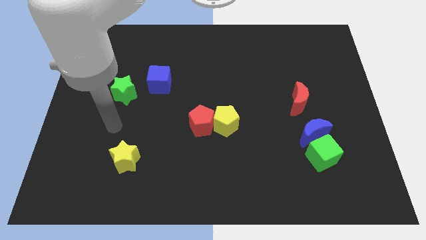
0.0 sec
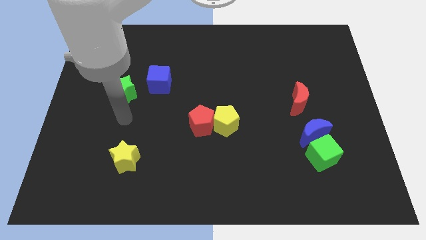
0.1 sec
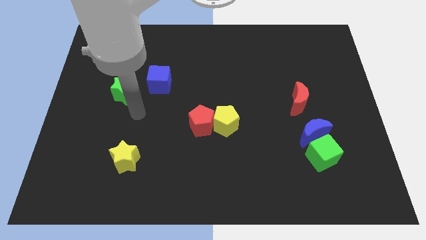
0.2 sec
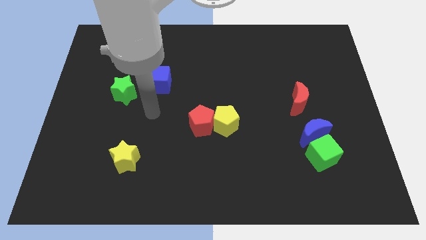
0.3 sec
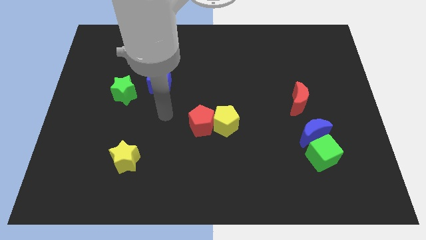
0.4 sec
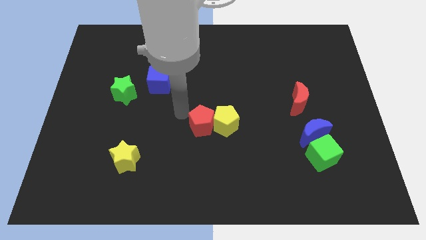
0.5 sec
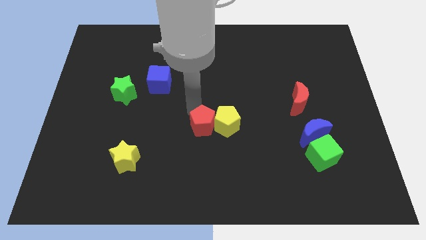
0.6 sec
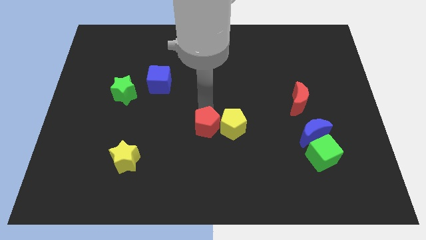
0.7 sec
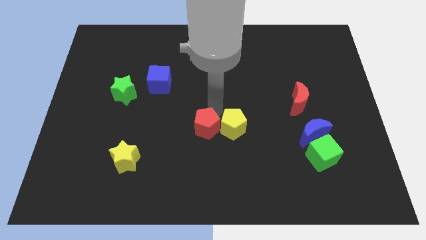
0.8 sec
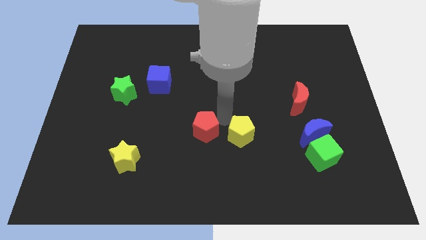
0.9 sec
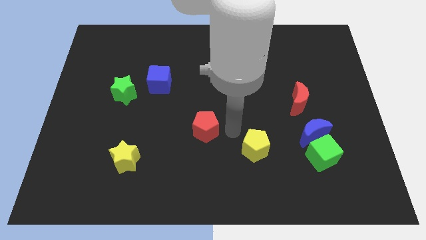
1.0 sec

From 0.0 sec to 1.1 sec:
move the red pentagon away from the yellow pentagon

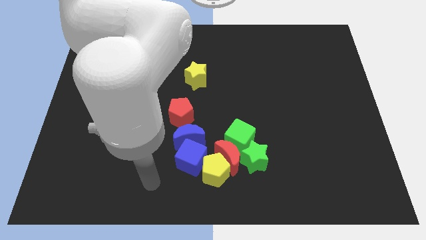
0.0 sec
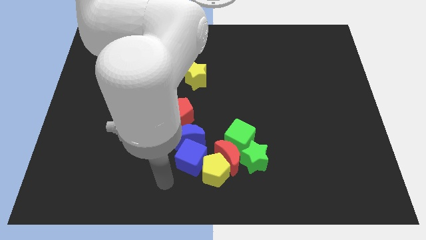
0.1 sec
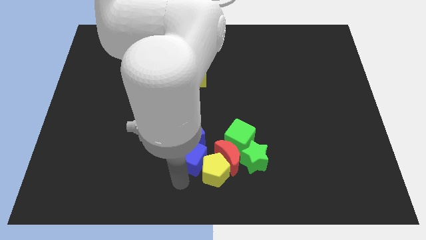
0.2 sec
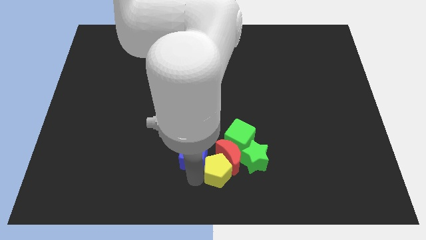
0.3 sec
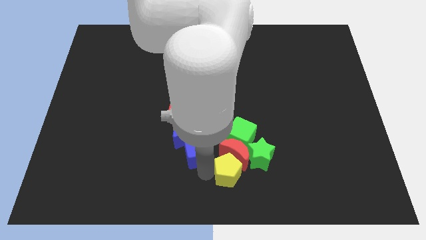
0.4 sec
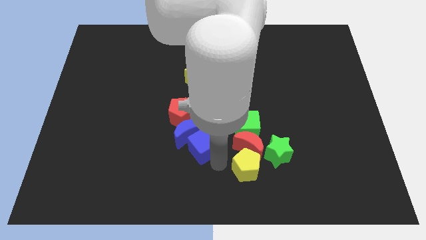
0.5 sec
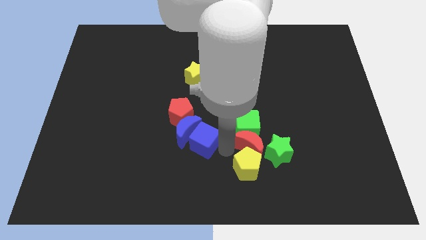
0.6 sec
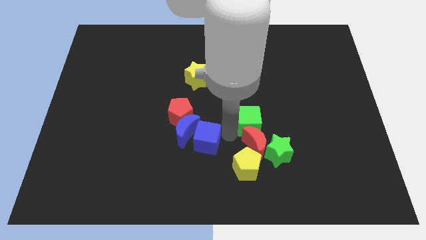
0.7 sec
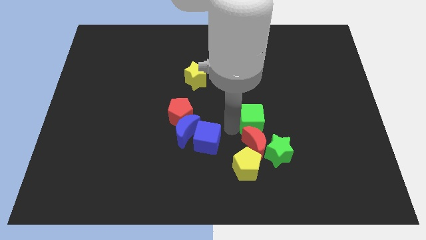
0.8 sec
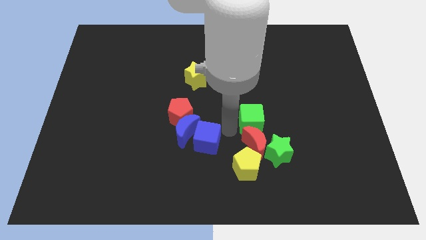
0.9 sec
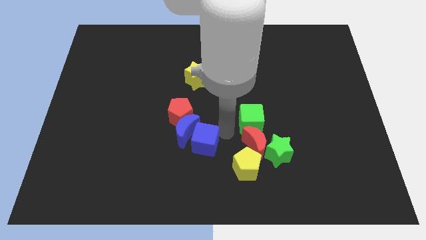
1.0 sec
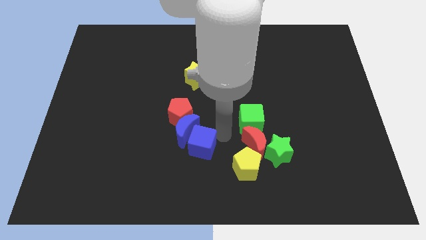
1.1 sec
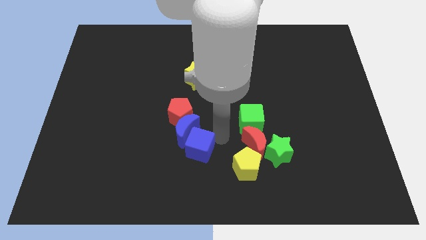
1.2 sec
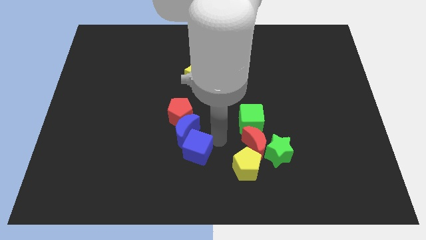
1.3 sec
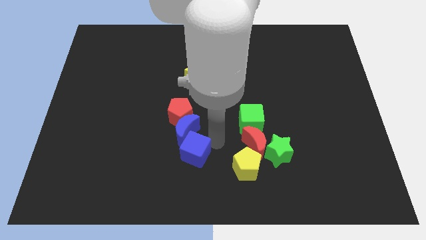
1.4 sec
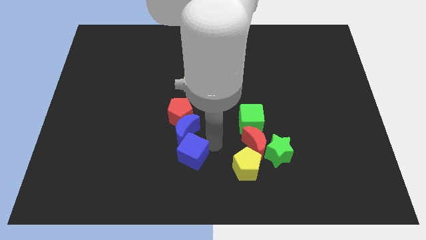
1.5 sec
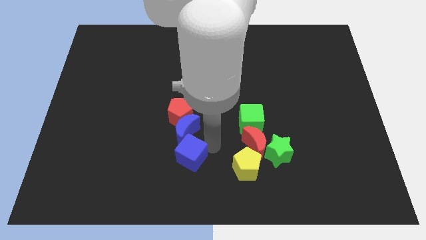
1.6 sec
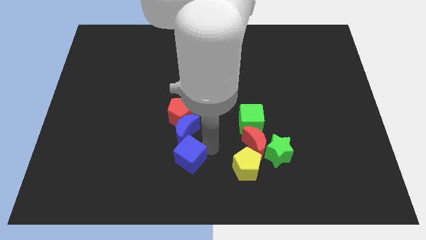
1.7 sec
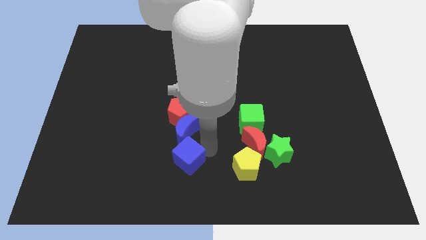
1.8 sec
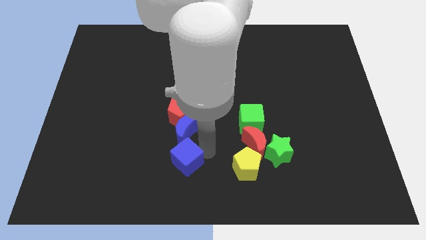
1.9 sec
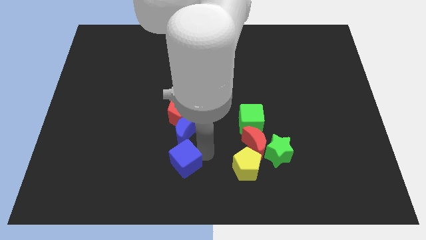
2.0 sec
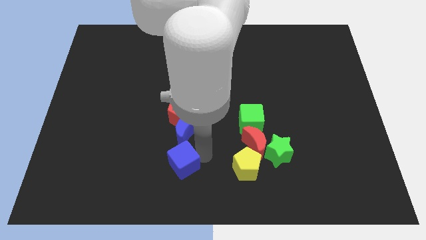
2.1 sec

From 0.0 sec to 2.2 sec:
pull the blue cube apart from the clump

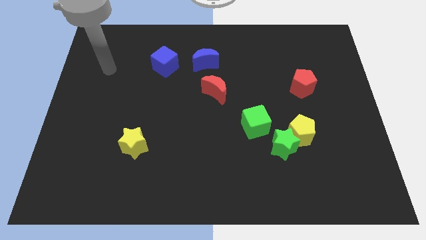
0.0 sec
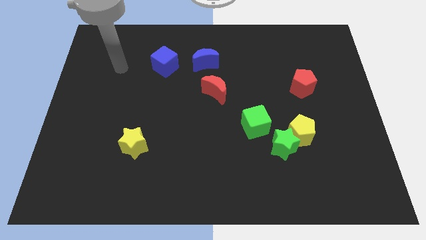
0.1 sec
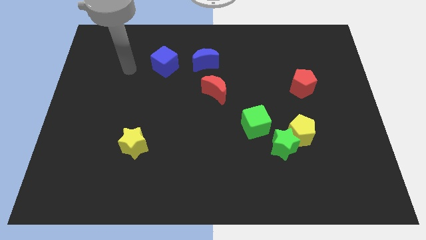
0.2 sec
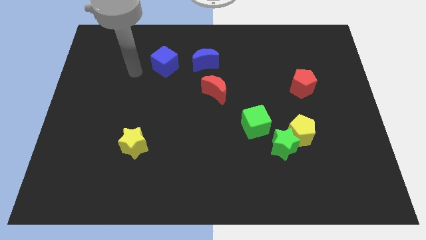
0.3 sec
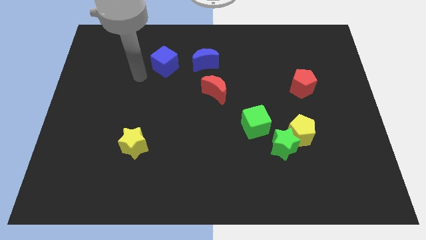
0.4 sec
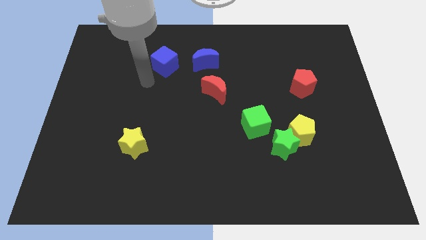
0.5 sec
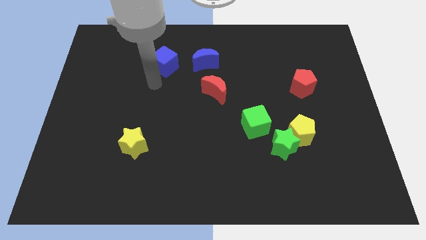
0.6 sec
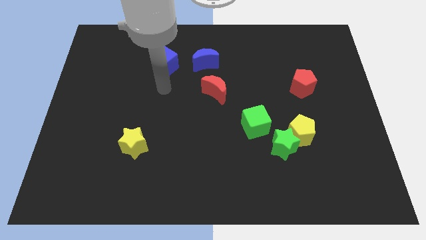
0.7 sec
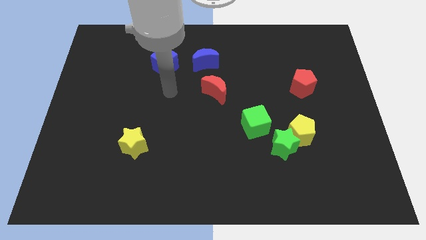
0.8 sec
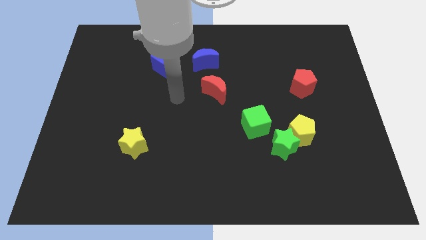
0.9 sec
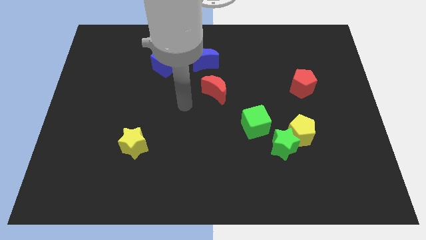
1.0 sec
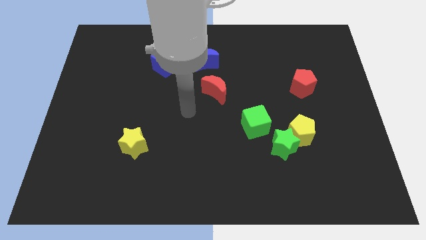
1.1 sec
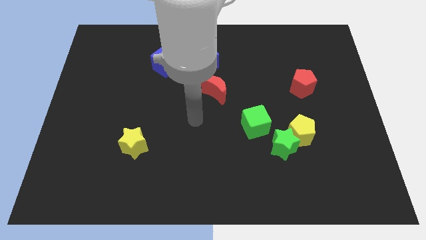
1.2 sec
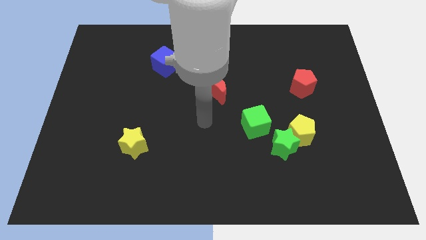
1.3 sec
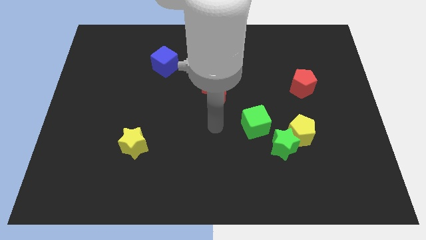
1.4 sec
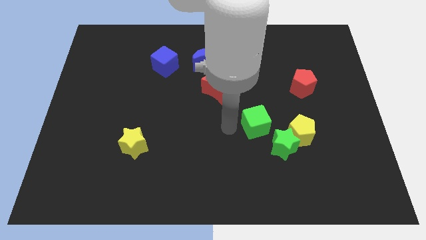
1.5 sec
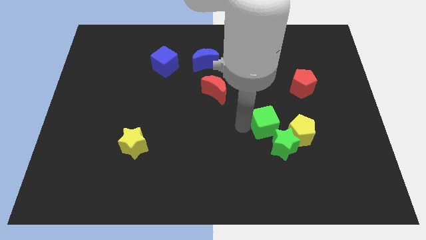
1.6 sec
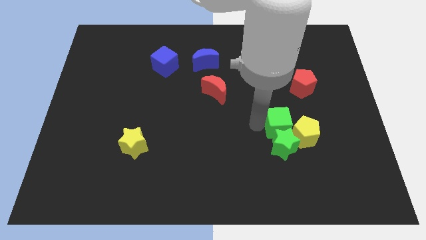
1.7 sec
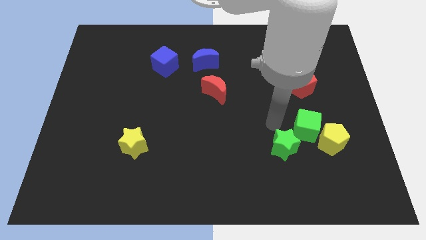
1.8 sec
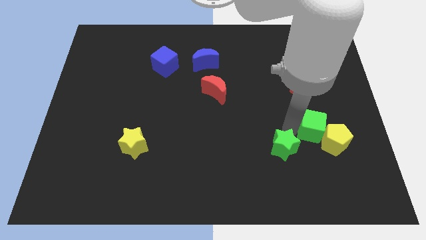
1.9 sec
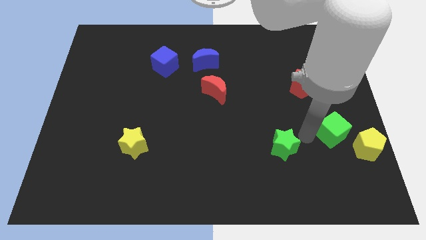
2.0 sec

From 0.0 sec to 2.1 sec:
separate the green star from the yellow pentagon and green cube

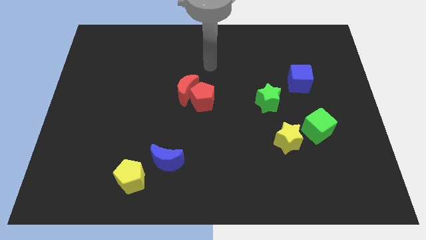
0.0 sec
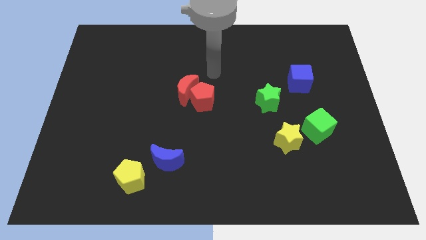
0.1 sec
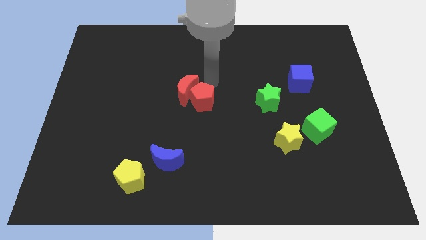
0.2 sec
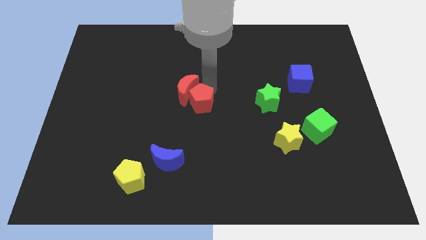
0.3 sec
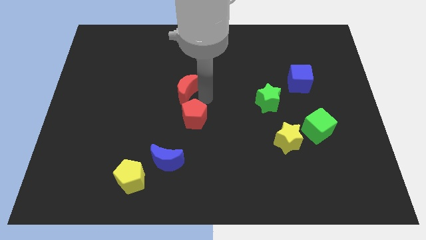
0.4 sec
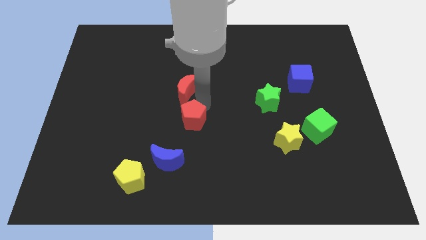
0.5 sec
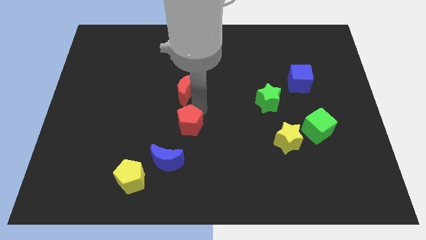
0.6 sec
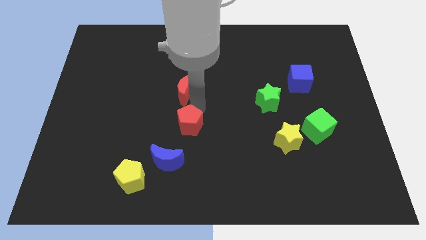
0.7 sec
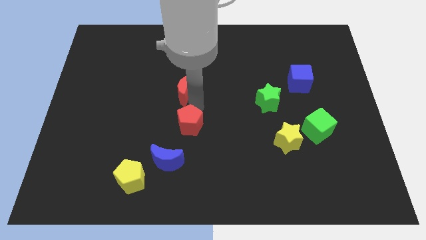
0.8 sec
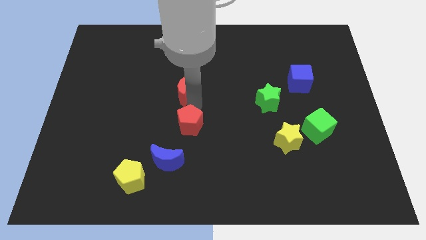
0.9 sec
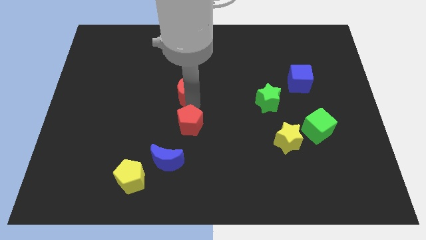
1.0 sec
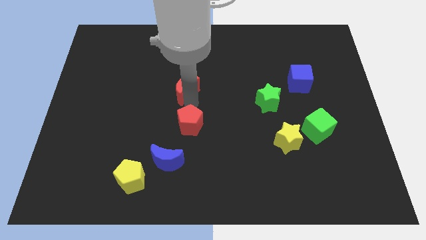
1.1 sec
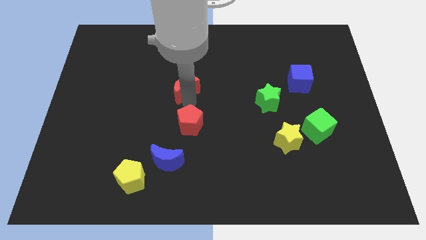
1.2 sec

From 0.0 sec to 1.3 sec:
pull the red moon apart from the red pentagon

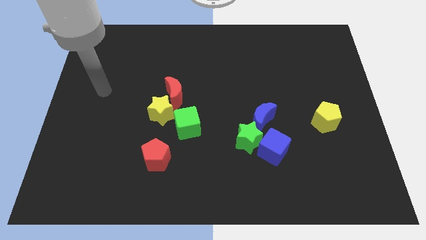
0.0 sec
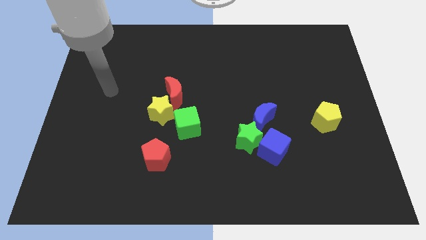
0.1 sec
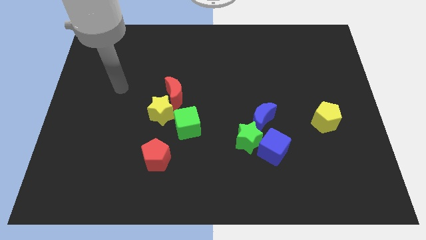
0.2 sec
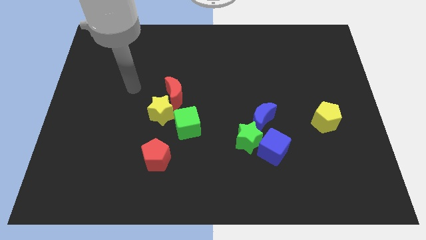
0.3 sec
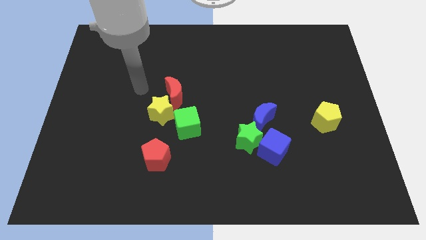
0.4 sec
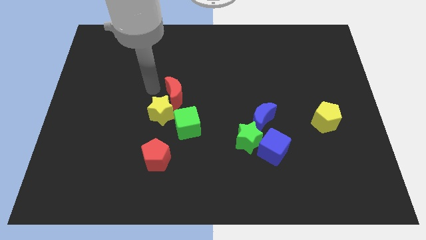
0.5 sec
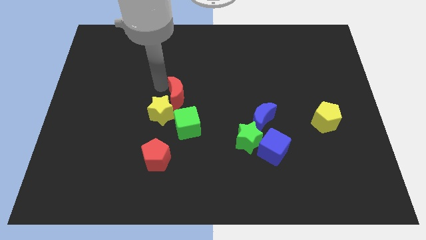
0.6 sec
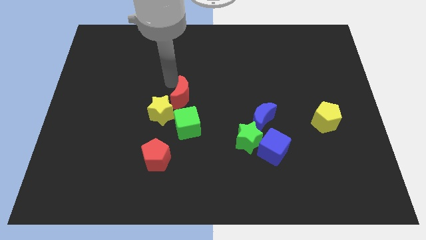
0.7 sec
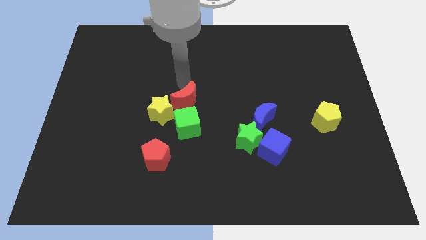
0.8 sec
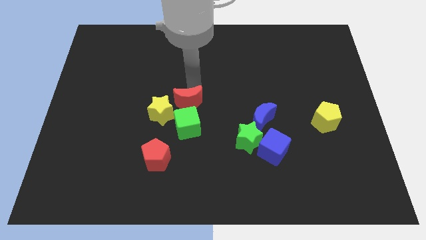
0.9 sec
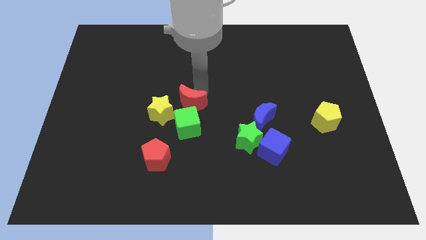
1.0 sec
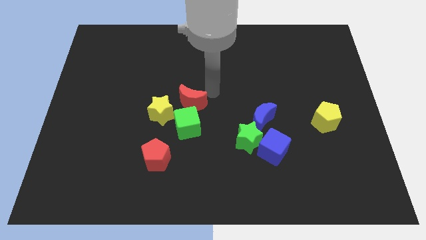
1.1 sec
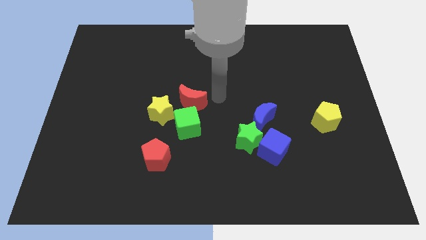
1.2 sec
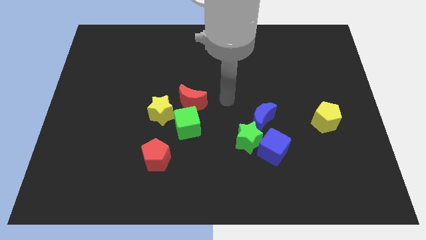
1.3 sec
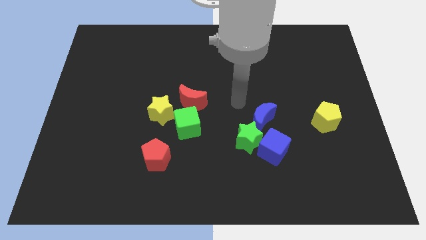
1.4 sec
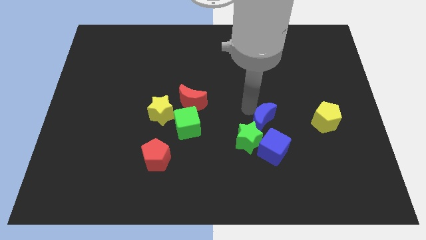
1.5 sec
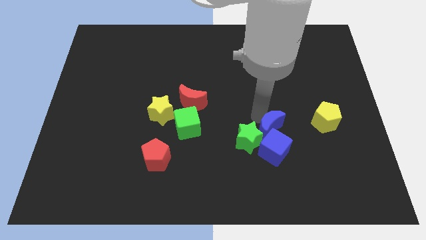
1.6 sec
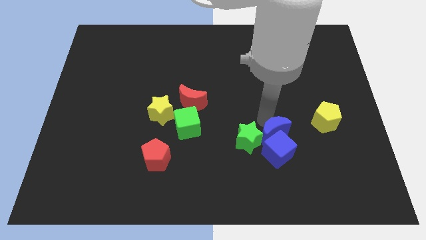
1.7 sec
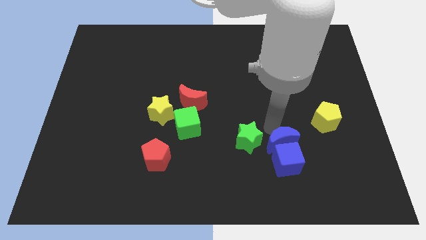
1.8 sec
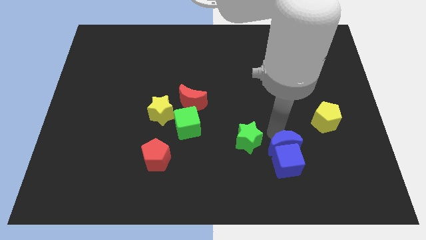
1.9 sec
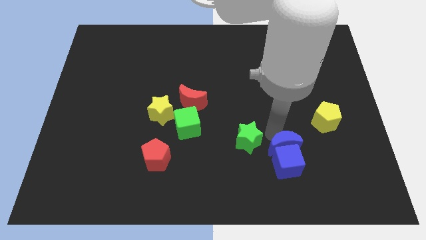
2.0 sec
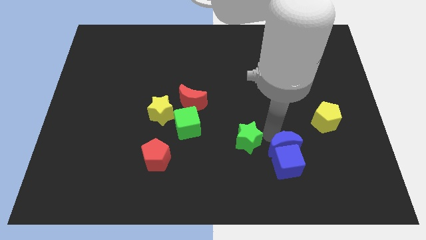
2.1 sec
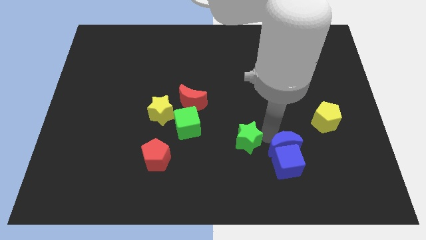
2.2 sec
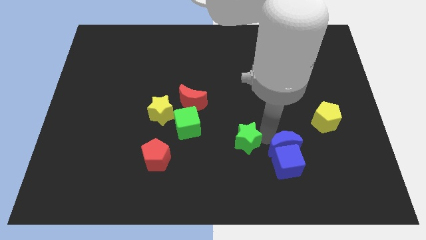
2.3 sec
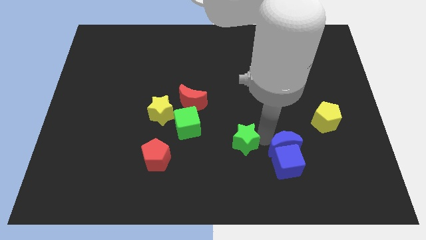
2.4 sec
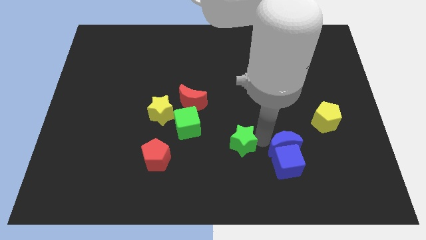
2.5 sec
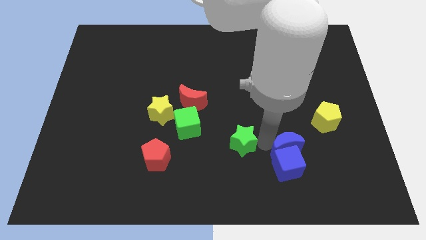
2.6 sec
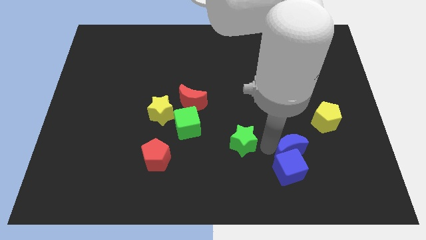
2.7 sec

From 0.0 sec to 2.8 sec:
separate the green star from the blue cube and blue moon
